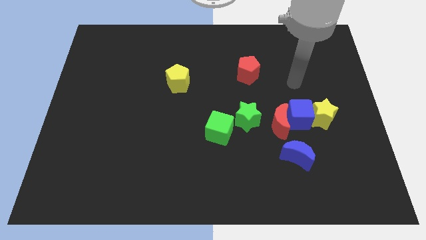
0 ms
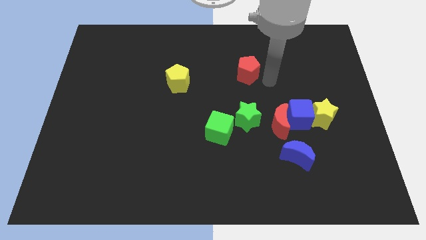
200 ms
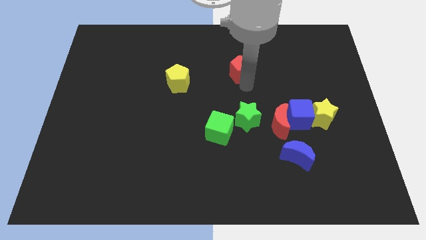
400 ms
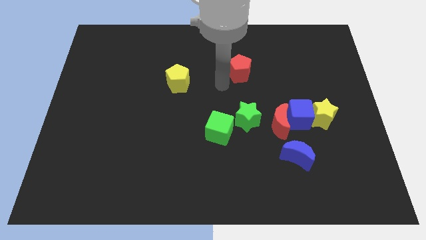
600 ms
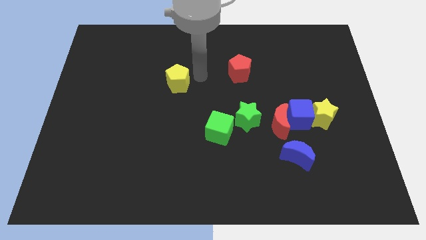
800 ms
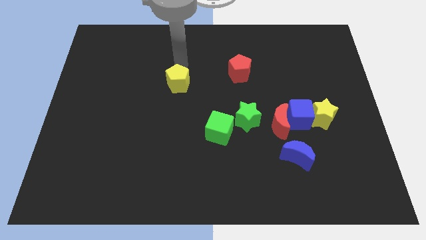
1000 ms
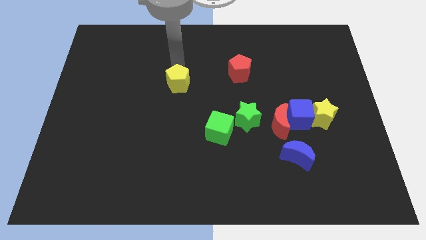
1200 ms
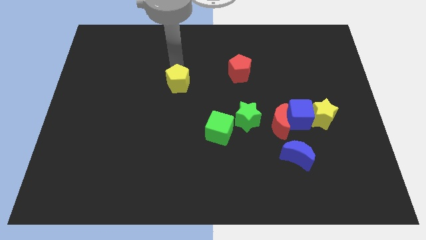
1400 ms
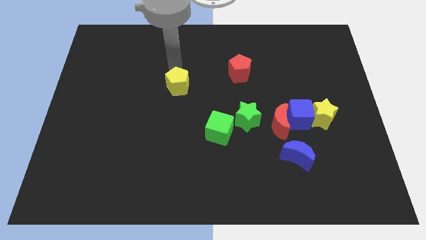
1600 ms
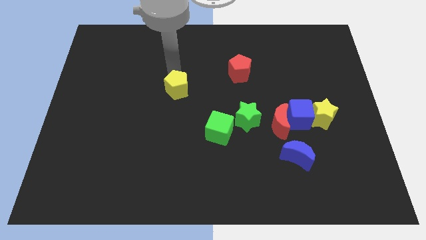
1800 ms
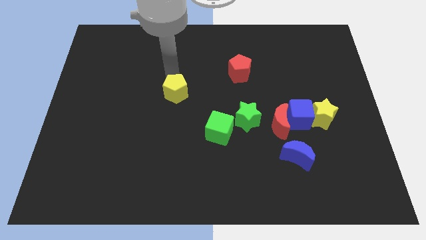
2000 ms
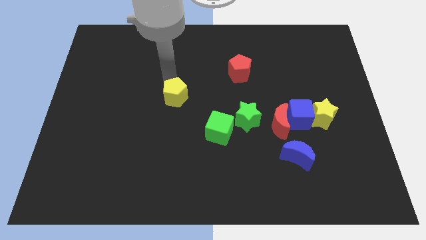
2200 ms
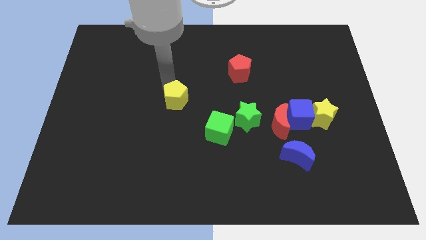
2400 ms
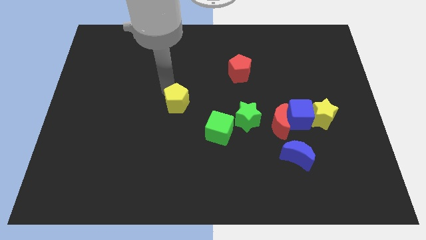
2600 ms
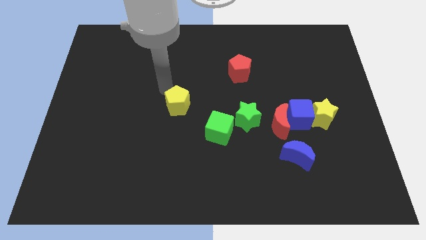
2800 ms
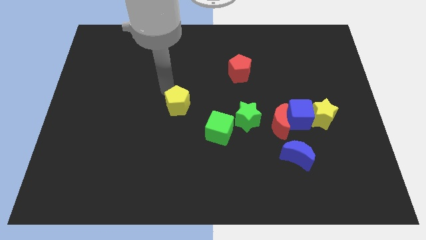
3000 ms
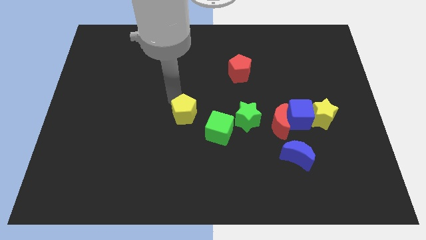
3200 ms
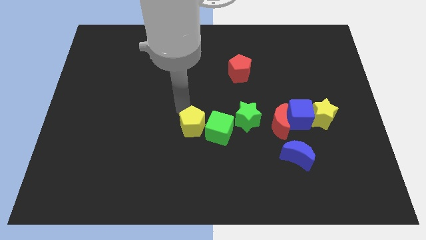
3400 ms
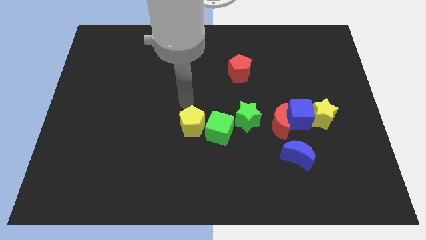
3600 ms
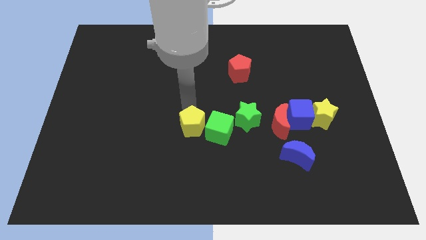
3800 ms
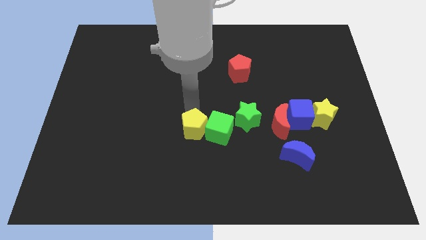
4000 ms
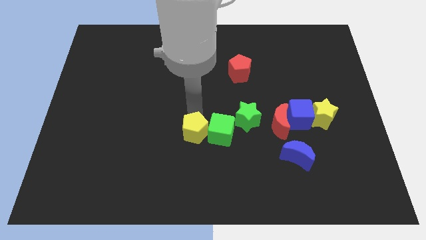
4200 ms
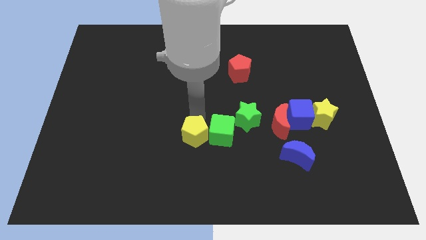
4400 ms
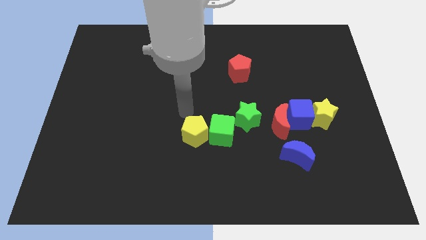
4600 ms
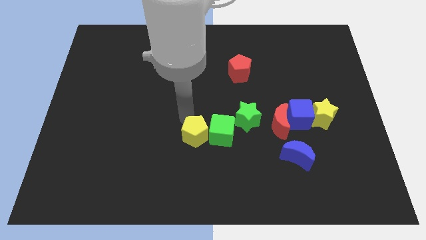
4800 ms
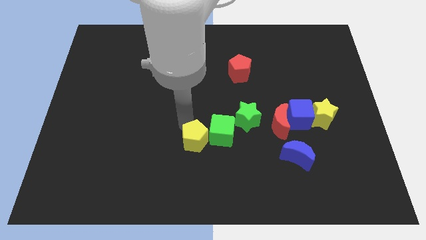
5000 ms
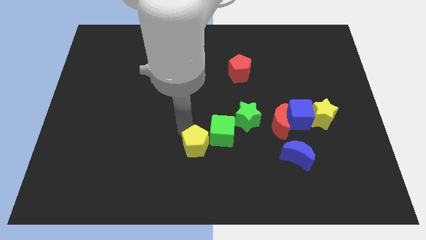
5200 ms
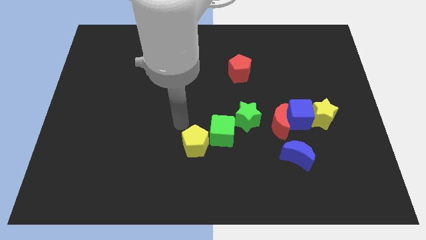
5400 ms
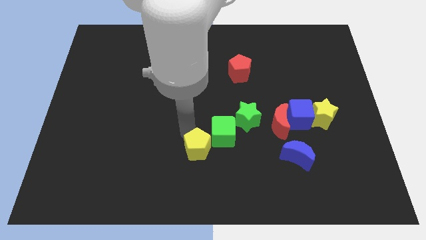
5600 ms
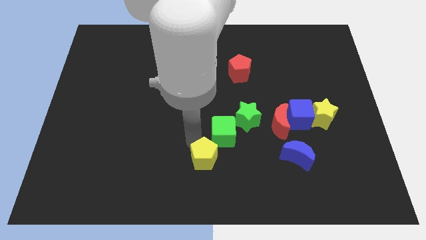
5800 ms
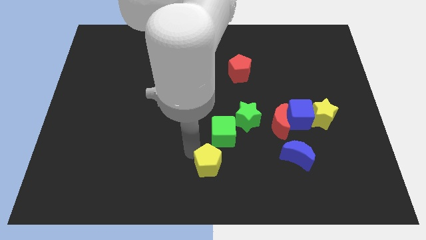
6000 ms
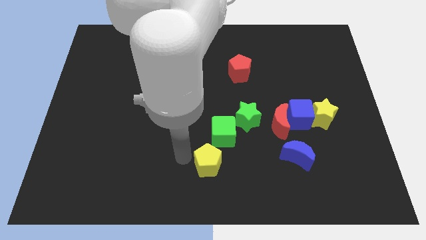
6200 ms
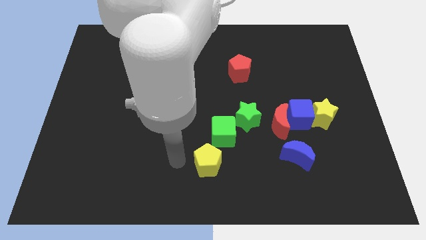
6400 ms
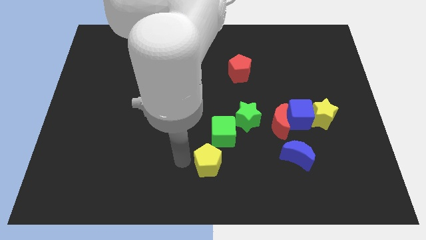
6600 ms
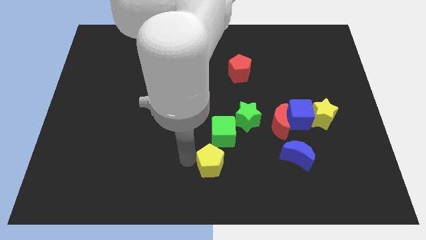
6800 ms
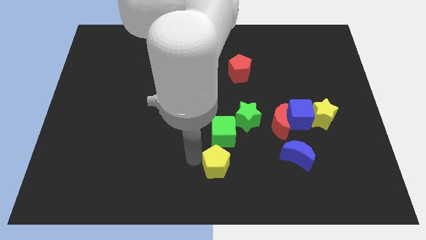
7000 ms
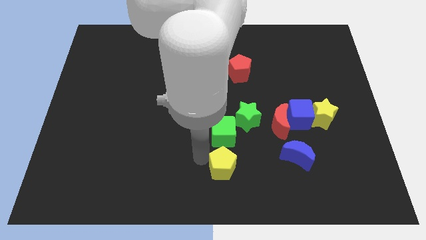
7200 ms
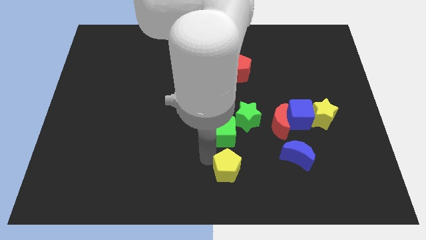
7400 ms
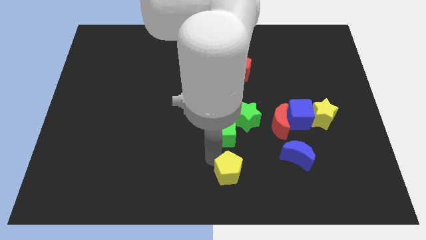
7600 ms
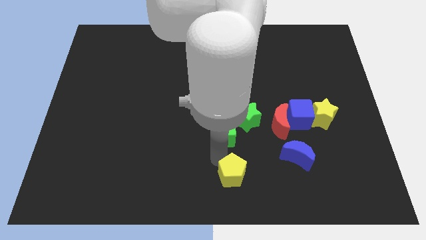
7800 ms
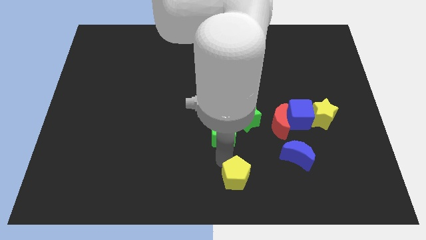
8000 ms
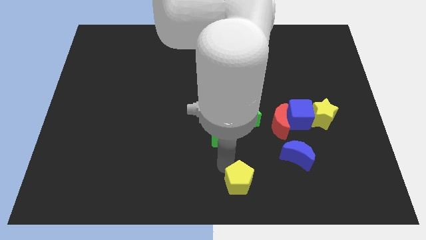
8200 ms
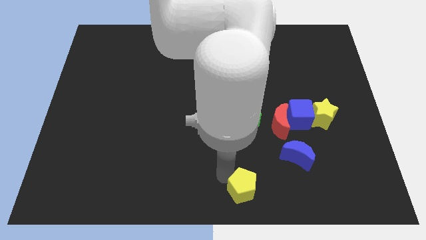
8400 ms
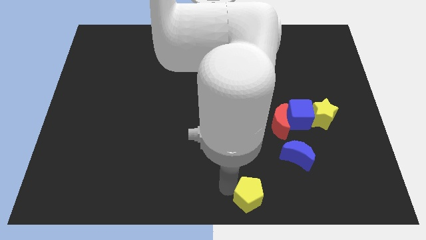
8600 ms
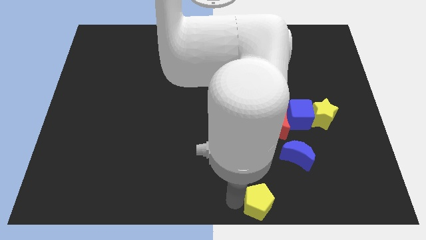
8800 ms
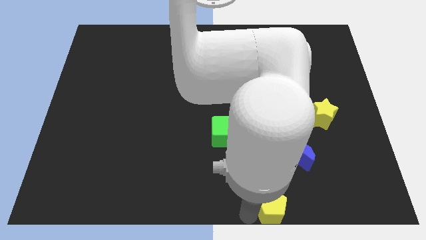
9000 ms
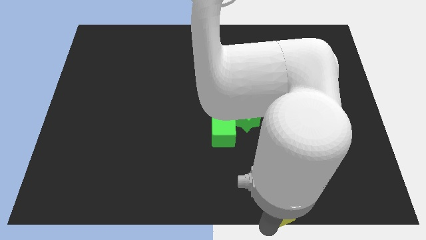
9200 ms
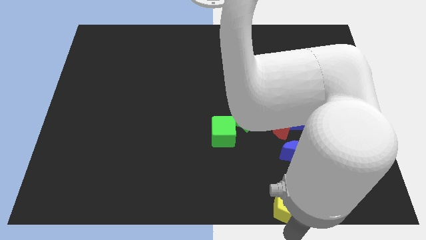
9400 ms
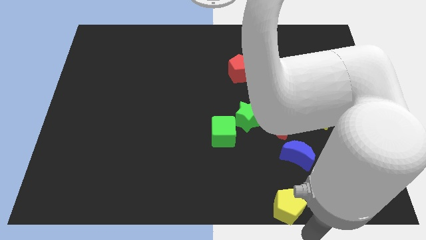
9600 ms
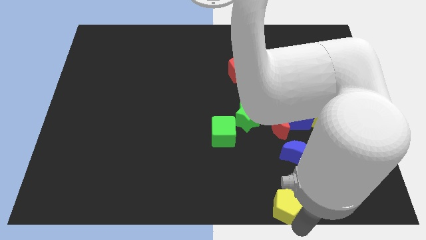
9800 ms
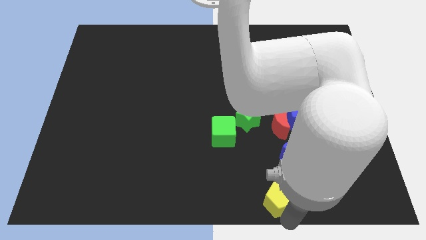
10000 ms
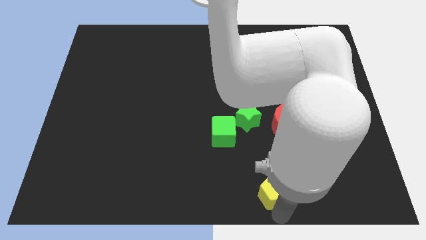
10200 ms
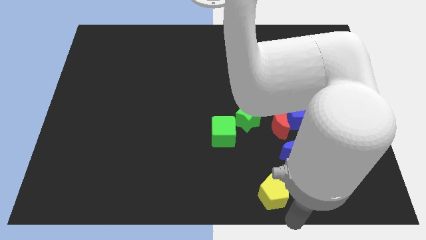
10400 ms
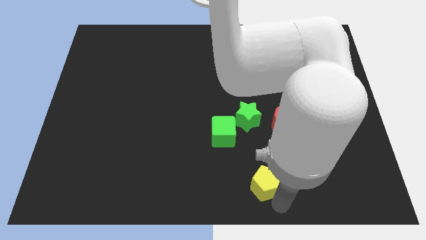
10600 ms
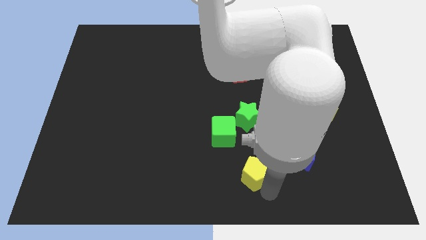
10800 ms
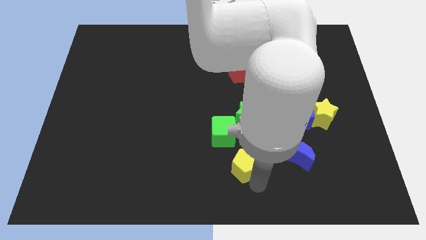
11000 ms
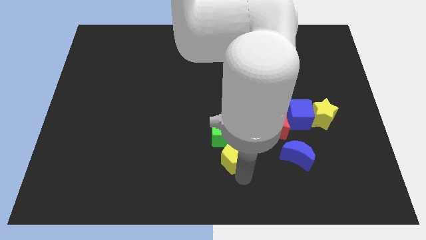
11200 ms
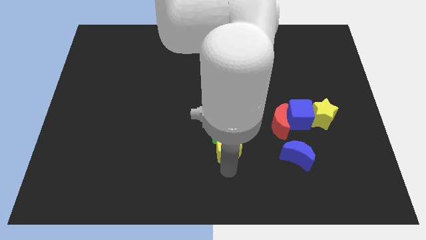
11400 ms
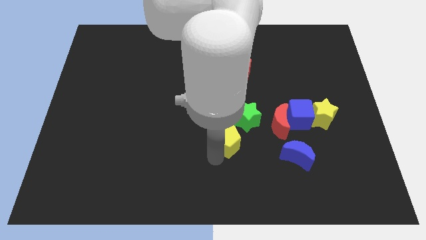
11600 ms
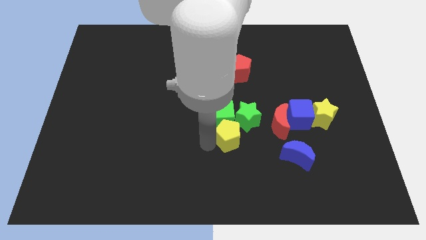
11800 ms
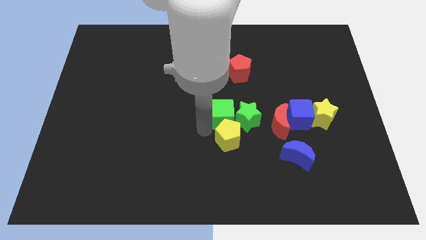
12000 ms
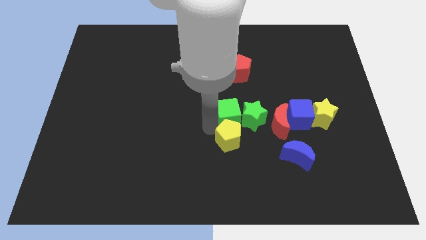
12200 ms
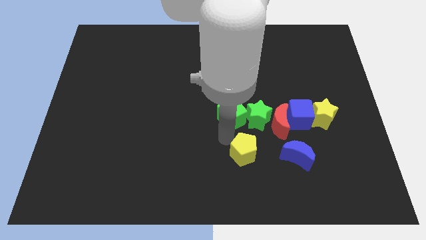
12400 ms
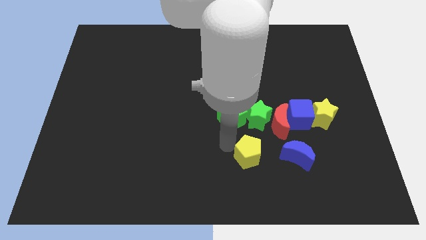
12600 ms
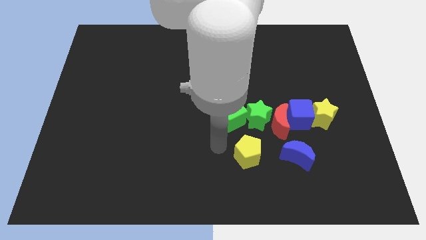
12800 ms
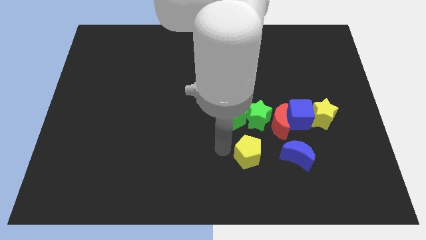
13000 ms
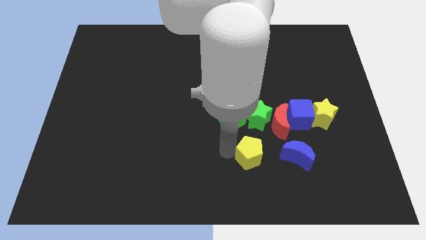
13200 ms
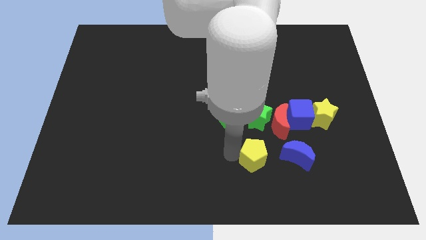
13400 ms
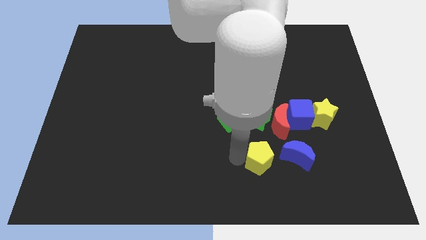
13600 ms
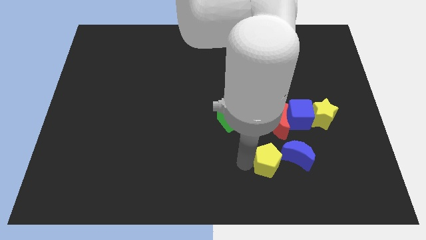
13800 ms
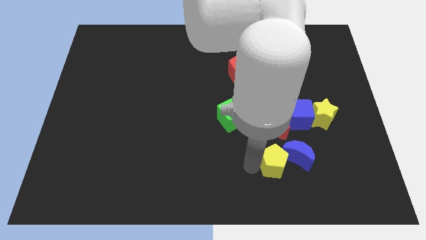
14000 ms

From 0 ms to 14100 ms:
put the yellow pentagon next to the blue moon
